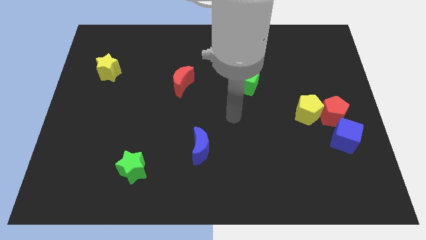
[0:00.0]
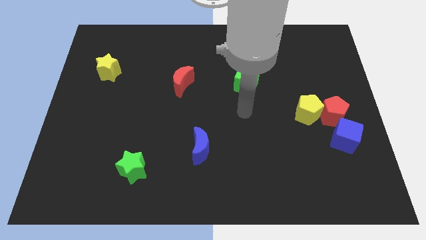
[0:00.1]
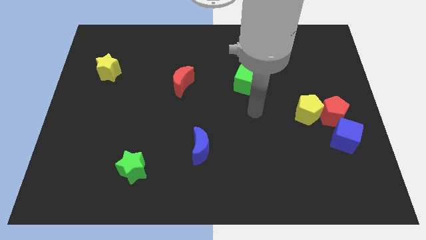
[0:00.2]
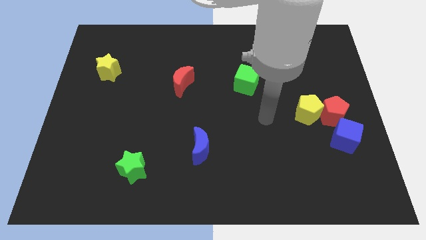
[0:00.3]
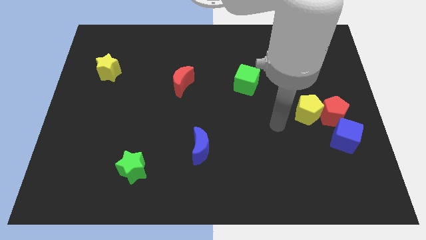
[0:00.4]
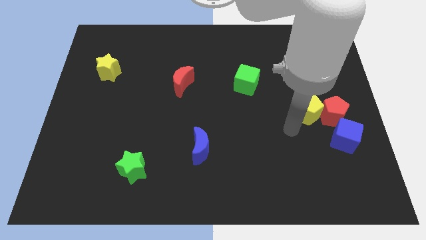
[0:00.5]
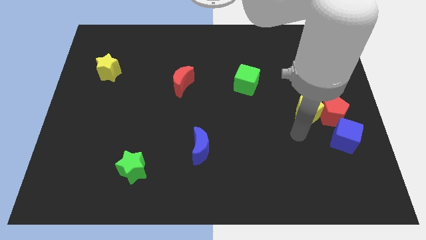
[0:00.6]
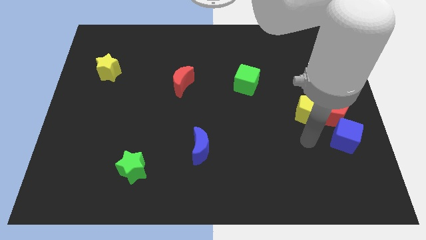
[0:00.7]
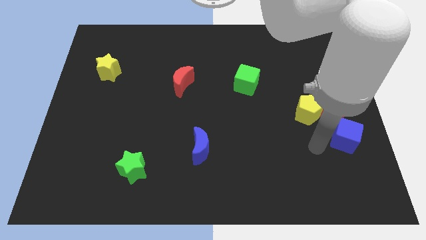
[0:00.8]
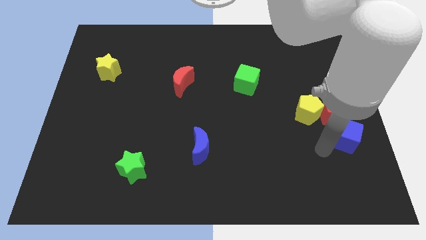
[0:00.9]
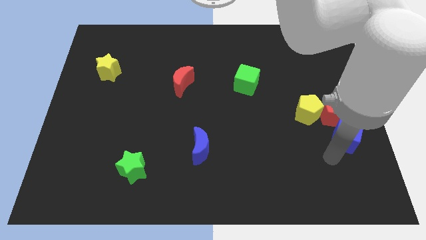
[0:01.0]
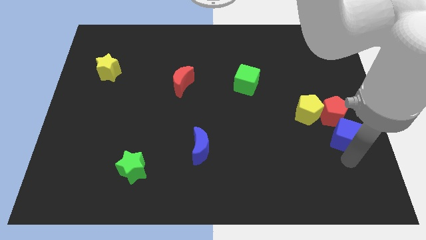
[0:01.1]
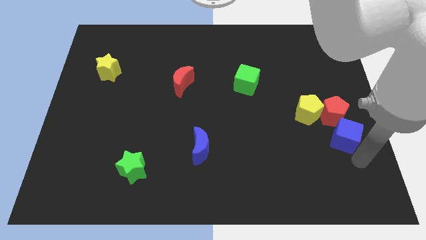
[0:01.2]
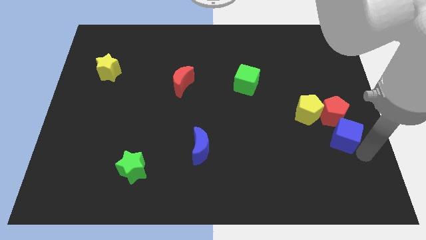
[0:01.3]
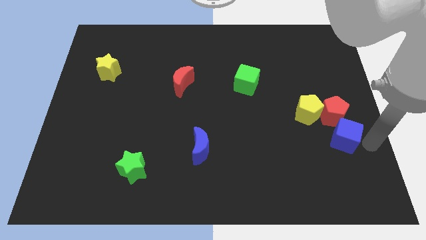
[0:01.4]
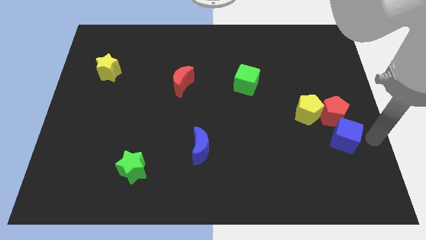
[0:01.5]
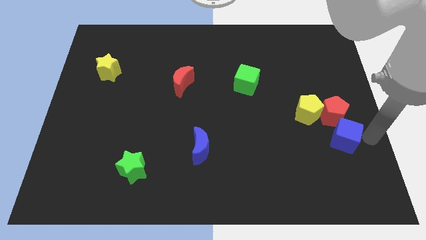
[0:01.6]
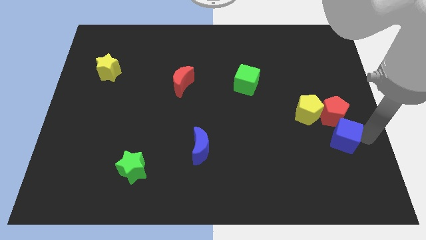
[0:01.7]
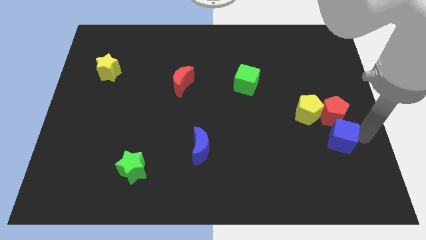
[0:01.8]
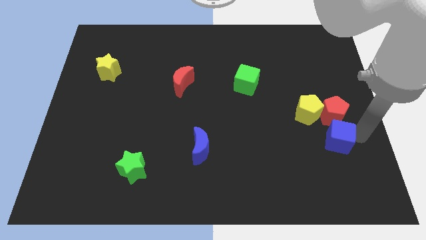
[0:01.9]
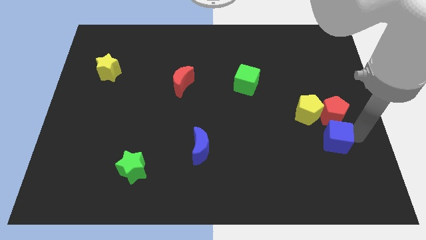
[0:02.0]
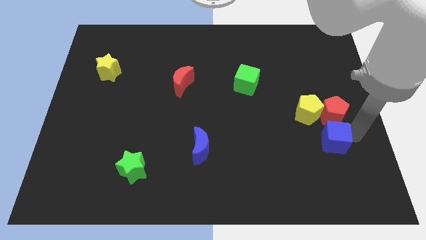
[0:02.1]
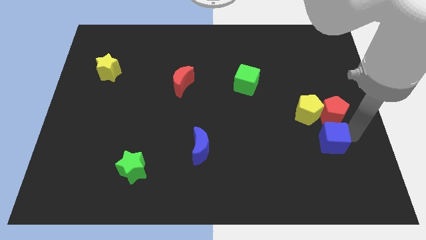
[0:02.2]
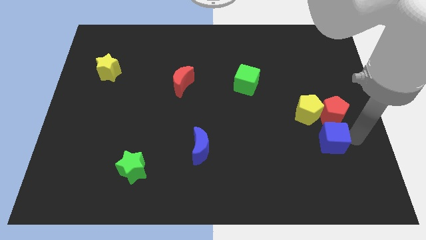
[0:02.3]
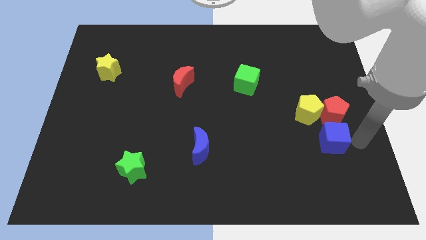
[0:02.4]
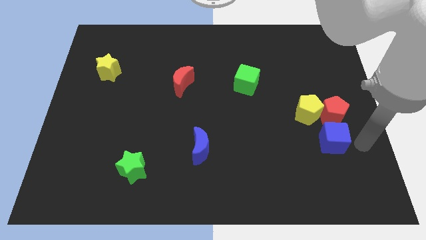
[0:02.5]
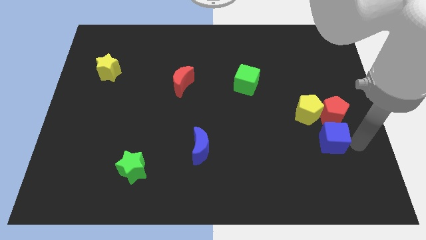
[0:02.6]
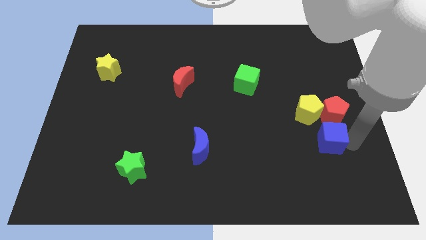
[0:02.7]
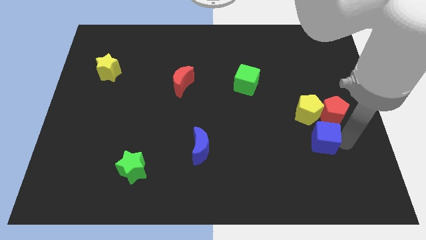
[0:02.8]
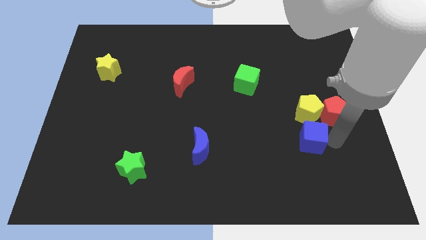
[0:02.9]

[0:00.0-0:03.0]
push the blue cube to the left a bit

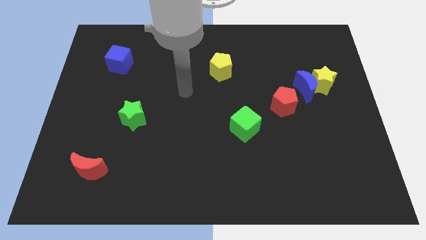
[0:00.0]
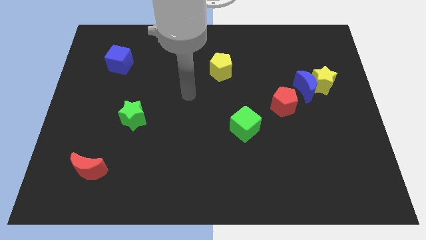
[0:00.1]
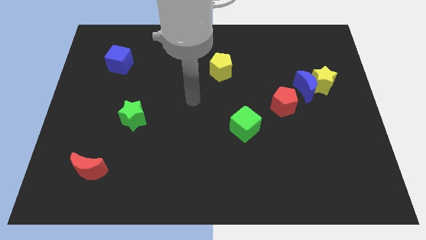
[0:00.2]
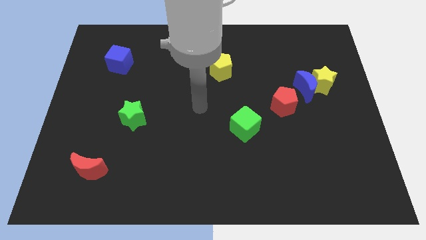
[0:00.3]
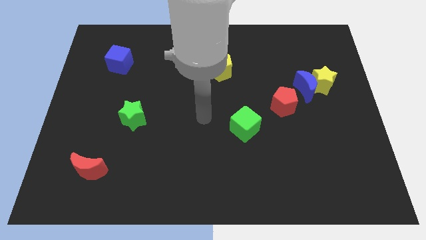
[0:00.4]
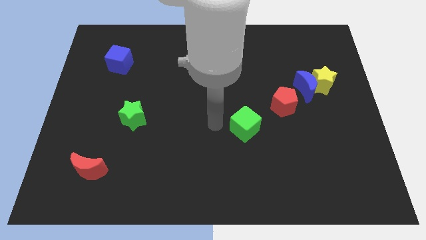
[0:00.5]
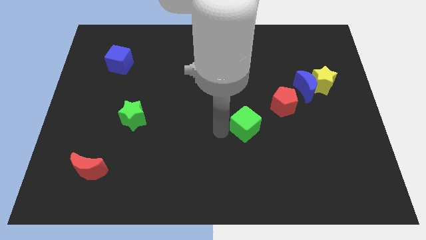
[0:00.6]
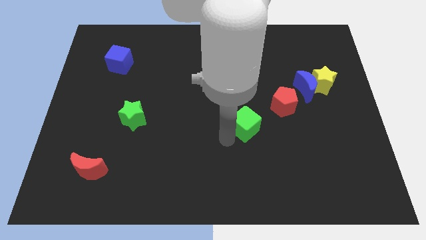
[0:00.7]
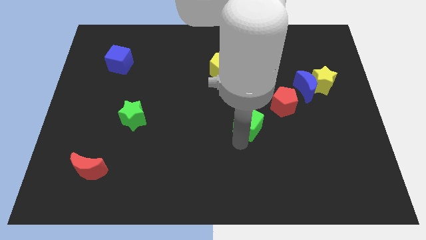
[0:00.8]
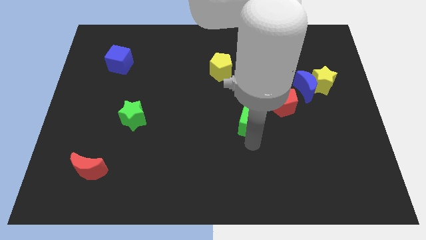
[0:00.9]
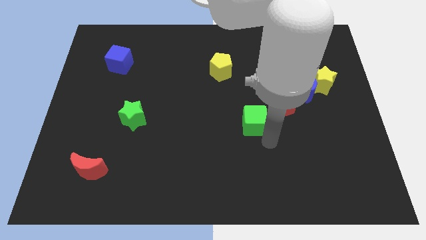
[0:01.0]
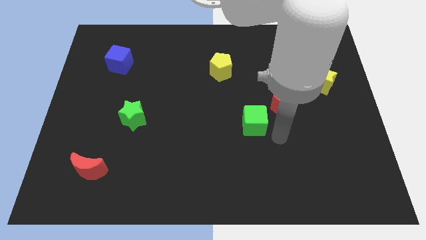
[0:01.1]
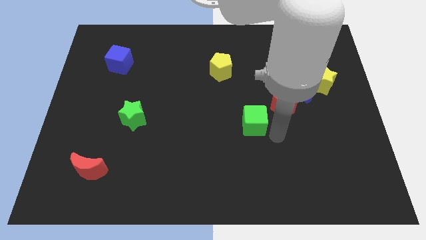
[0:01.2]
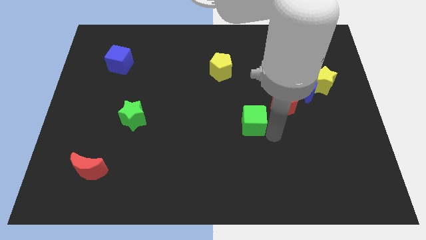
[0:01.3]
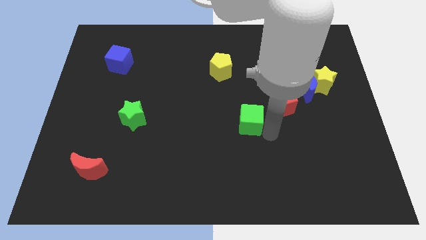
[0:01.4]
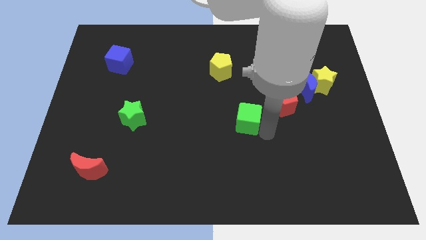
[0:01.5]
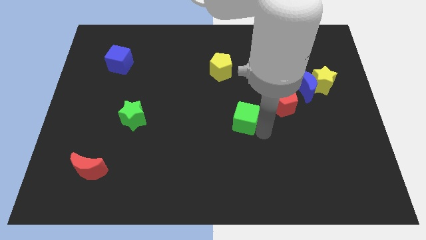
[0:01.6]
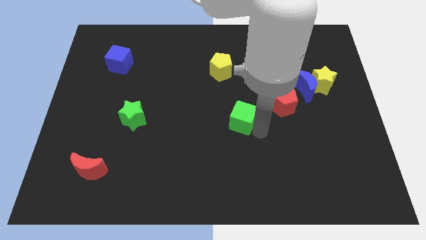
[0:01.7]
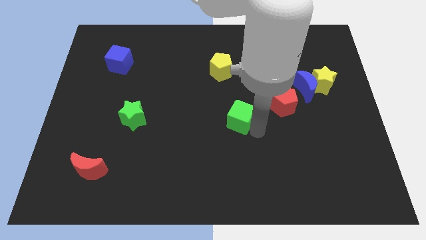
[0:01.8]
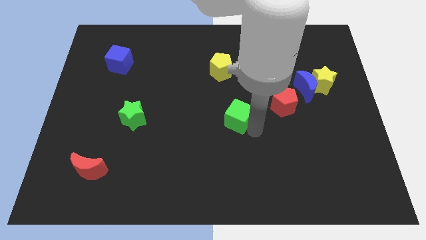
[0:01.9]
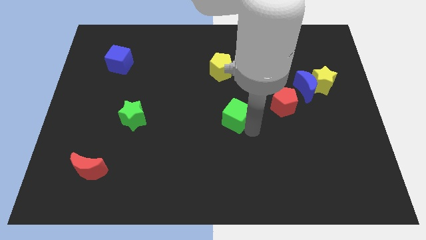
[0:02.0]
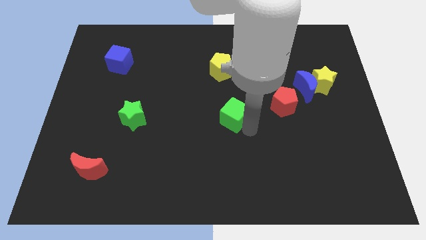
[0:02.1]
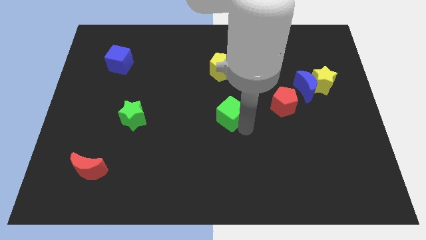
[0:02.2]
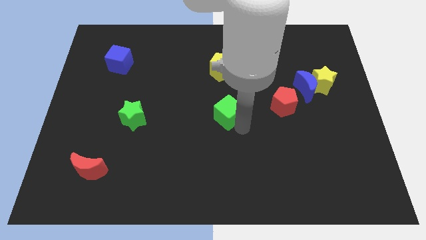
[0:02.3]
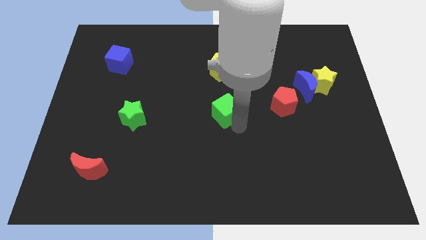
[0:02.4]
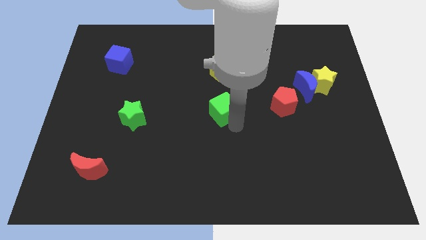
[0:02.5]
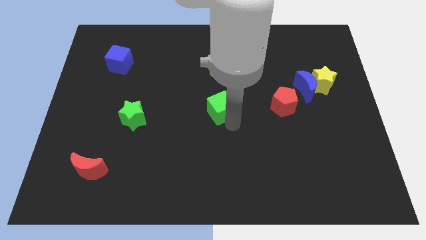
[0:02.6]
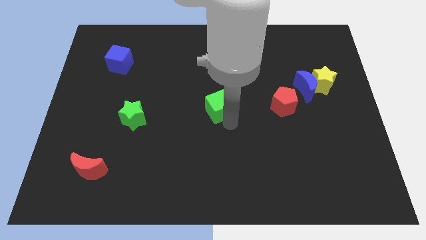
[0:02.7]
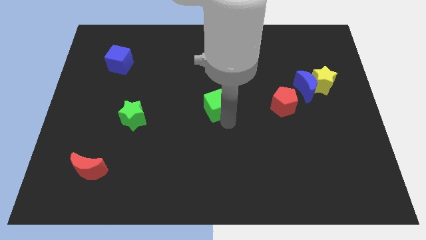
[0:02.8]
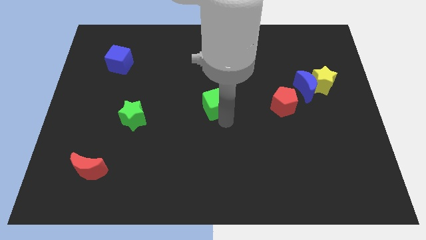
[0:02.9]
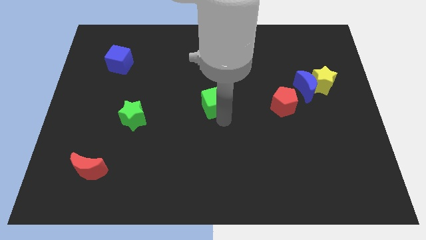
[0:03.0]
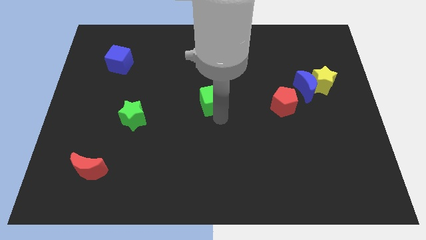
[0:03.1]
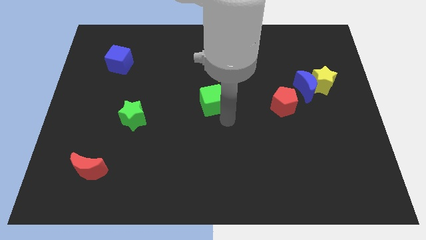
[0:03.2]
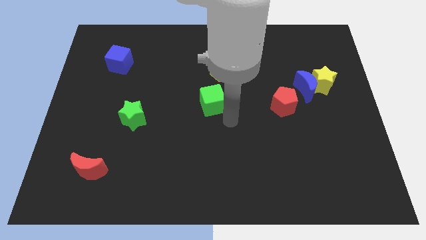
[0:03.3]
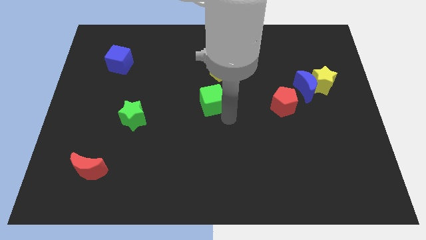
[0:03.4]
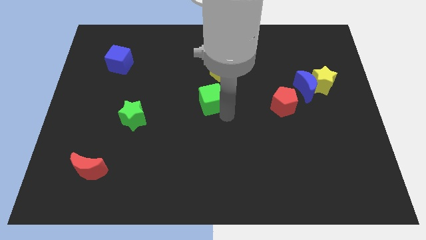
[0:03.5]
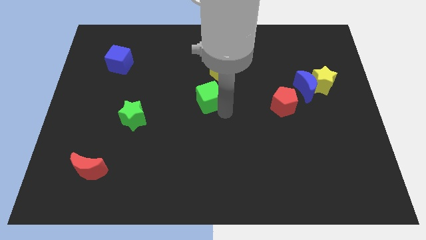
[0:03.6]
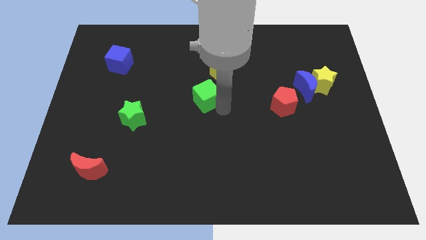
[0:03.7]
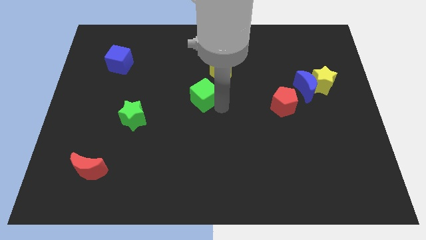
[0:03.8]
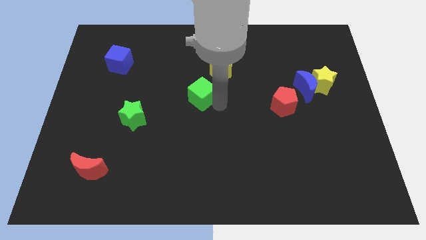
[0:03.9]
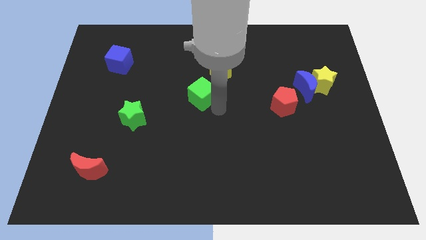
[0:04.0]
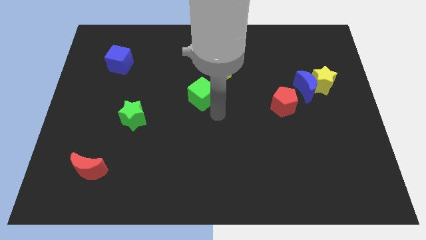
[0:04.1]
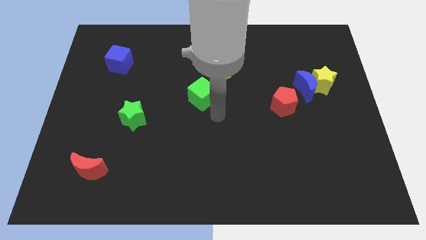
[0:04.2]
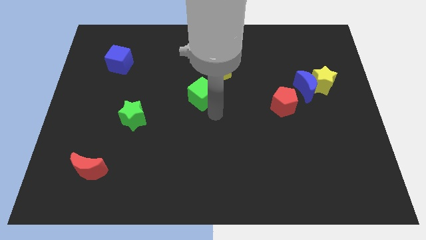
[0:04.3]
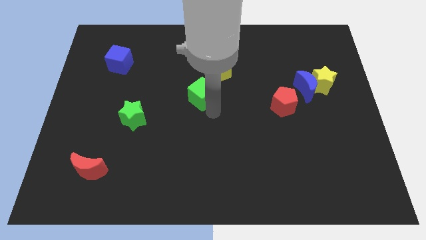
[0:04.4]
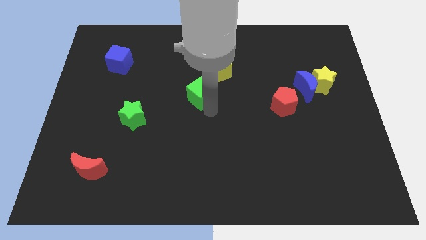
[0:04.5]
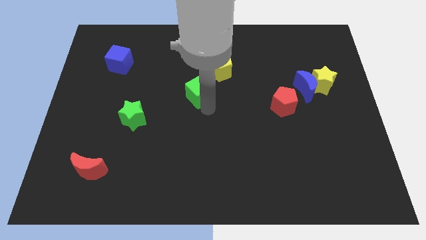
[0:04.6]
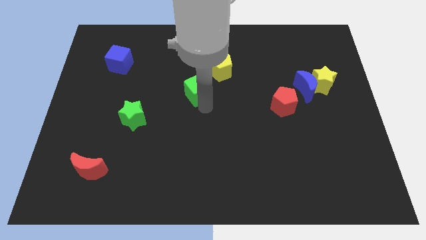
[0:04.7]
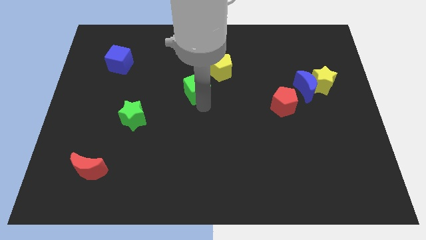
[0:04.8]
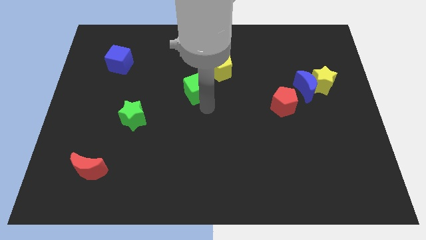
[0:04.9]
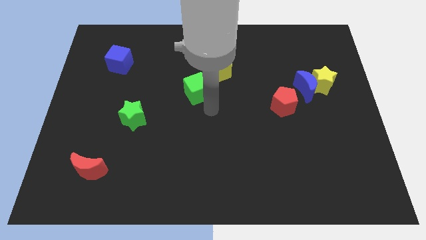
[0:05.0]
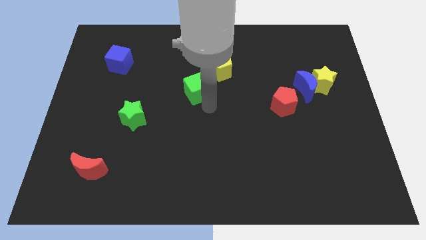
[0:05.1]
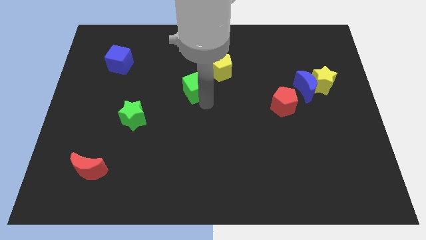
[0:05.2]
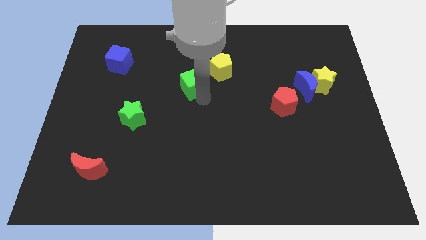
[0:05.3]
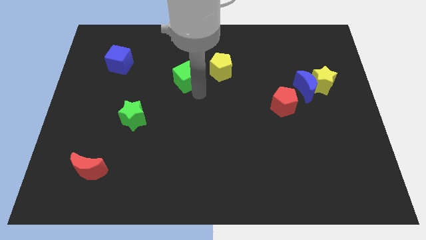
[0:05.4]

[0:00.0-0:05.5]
slide the green cube diagonally up and to the left
